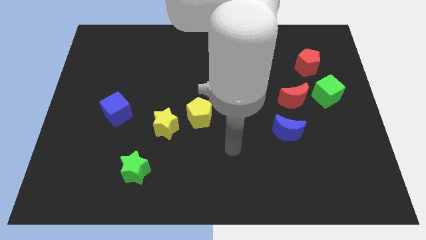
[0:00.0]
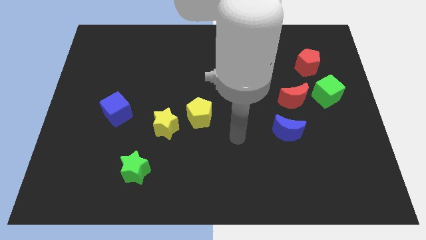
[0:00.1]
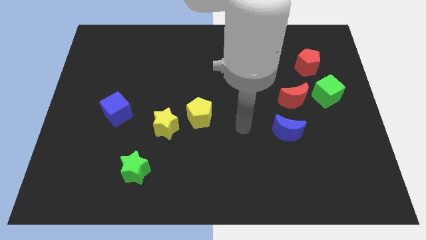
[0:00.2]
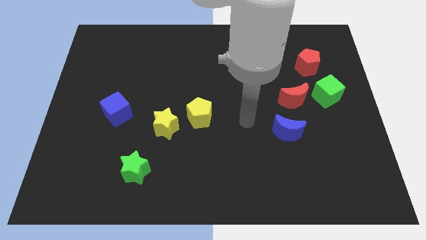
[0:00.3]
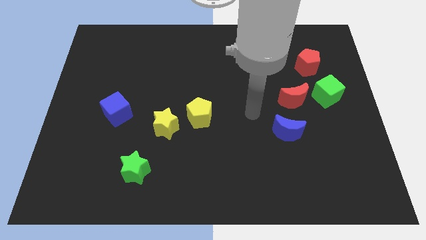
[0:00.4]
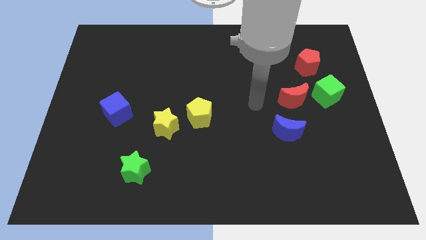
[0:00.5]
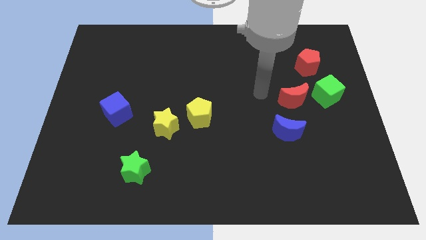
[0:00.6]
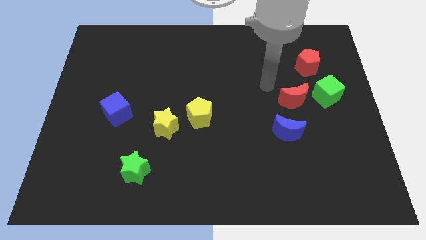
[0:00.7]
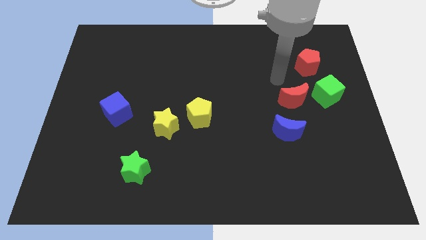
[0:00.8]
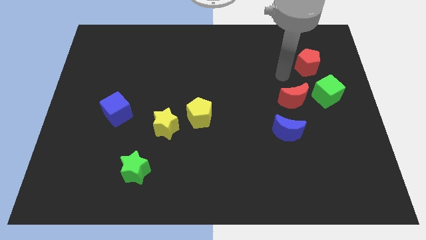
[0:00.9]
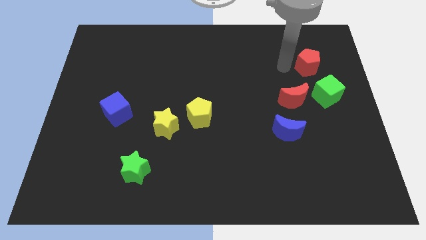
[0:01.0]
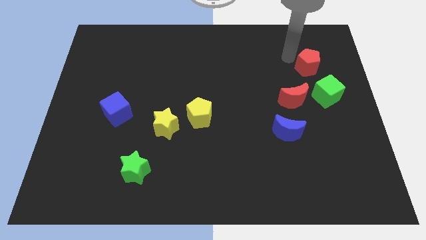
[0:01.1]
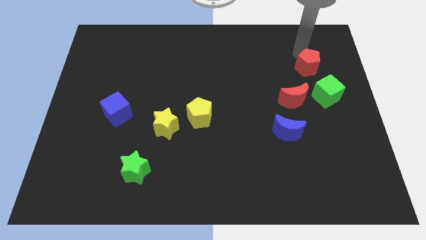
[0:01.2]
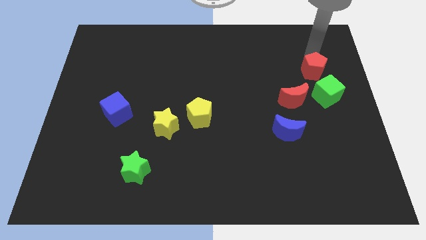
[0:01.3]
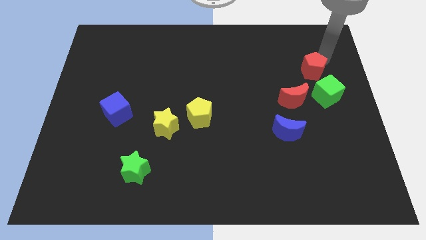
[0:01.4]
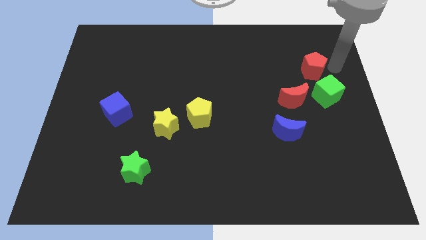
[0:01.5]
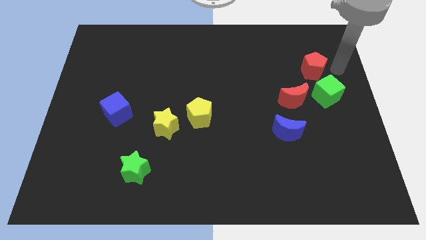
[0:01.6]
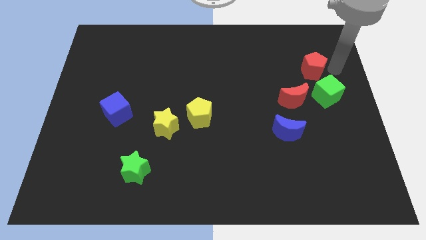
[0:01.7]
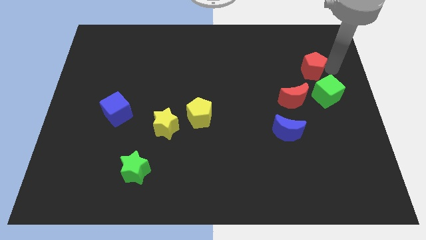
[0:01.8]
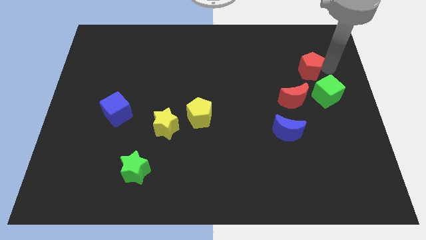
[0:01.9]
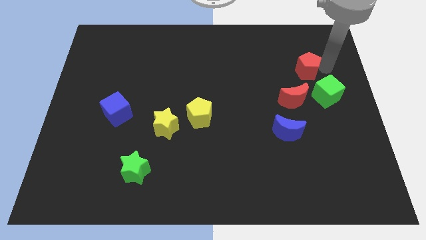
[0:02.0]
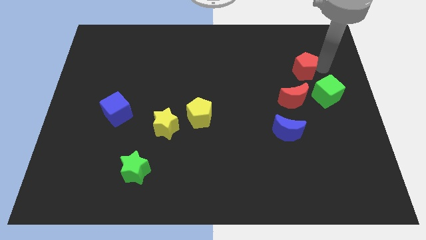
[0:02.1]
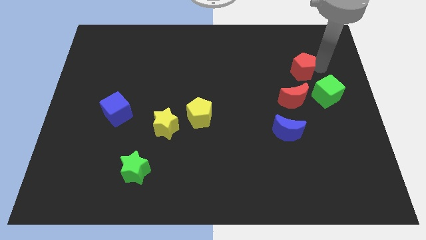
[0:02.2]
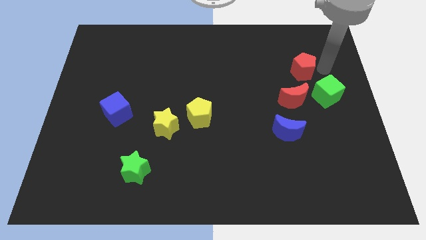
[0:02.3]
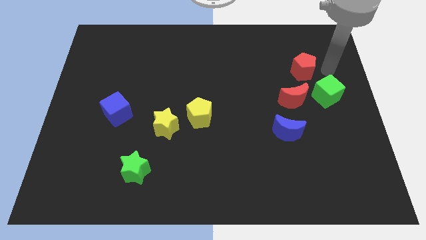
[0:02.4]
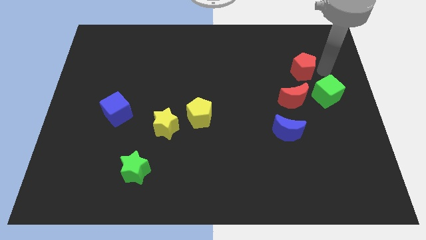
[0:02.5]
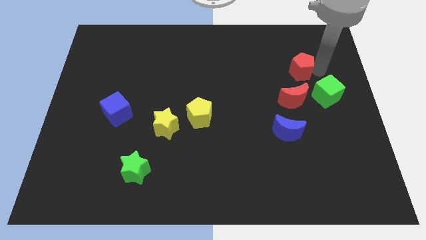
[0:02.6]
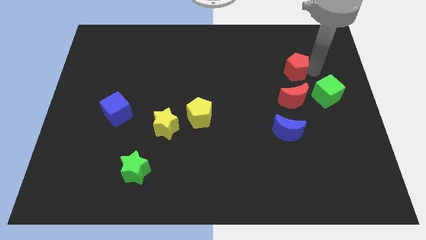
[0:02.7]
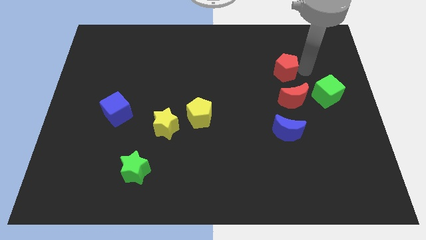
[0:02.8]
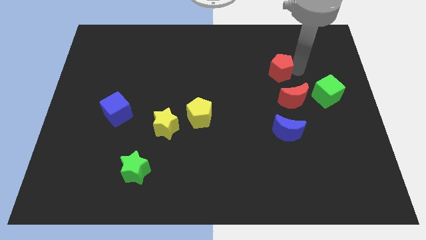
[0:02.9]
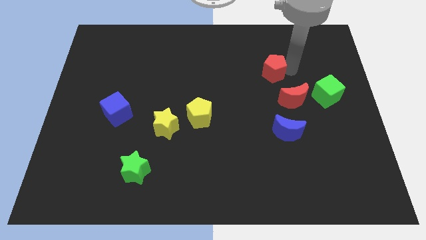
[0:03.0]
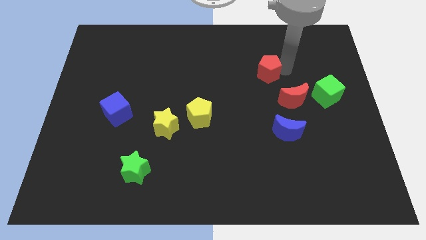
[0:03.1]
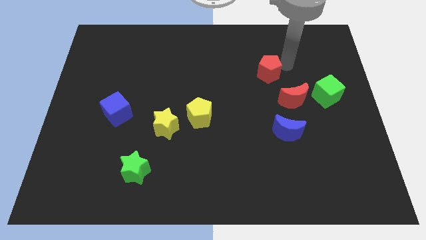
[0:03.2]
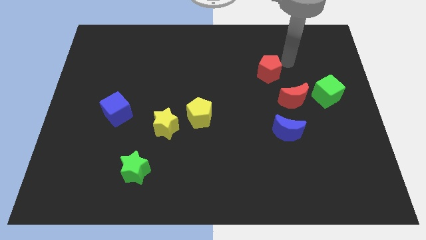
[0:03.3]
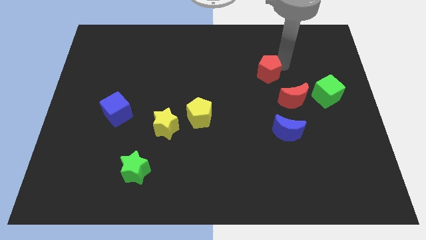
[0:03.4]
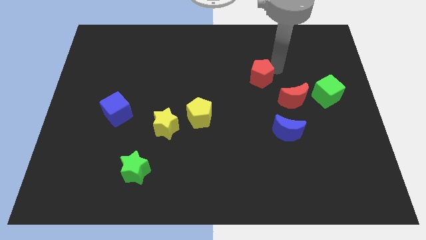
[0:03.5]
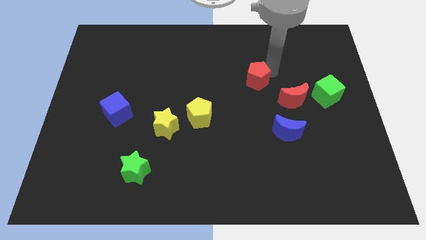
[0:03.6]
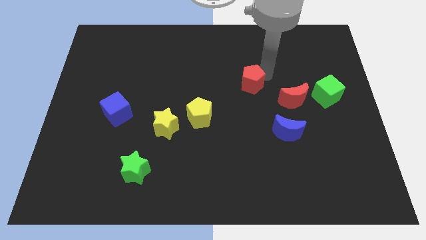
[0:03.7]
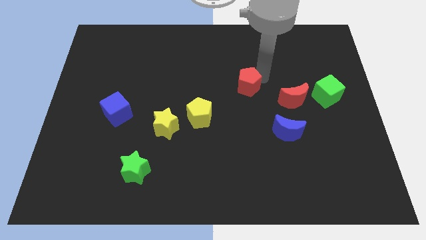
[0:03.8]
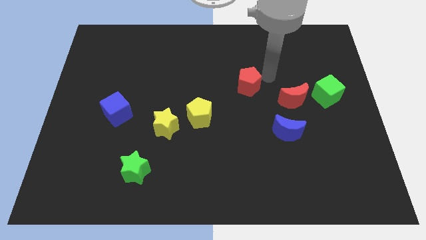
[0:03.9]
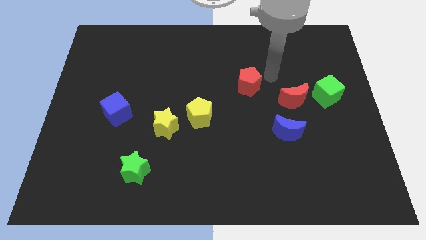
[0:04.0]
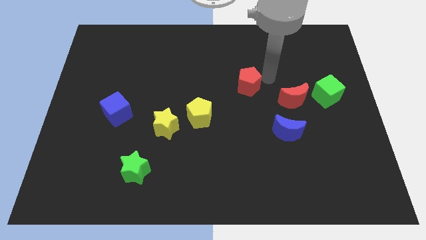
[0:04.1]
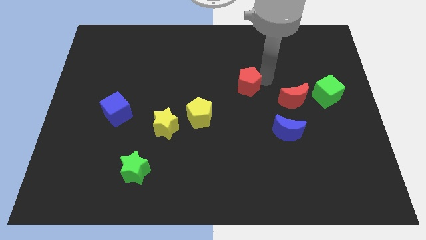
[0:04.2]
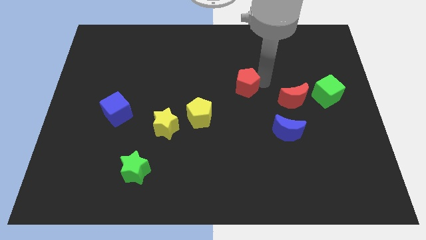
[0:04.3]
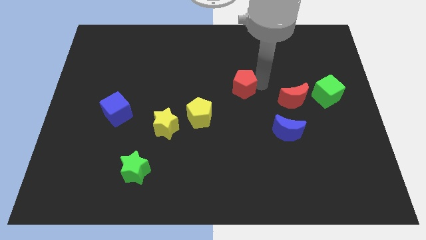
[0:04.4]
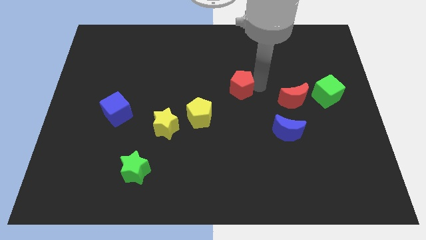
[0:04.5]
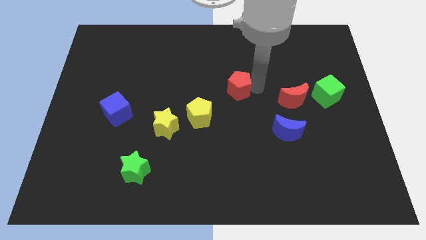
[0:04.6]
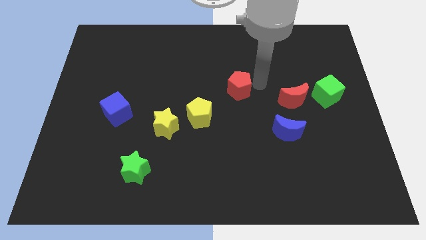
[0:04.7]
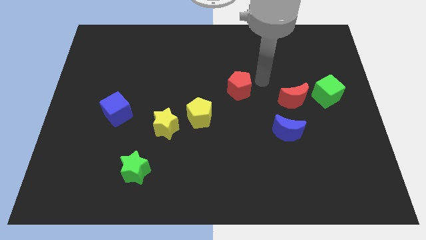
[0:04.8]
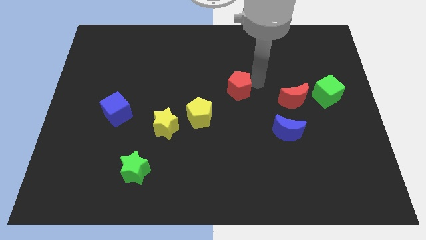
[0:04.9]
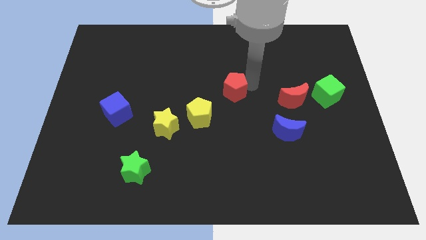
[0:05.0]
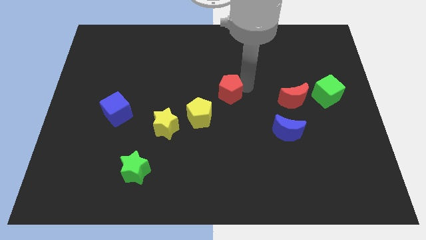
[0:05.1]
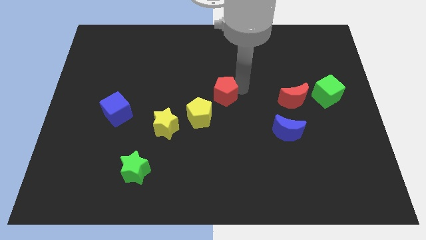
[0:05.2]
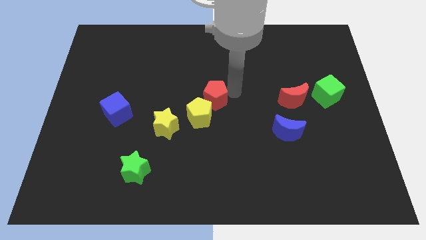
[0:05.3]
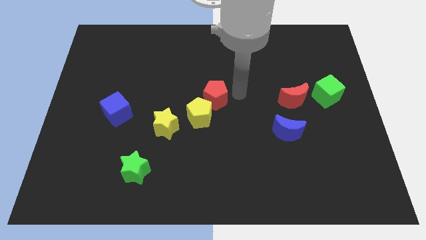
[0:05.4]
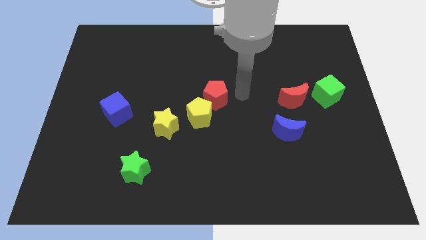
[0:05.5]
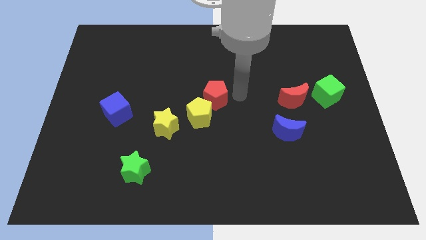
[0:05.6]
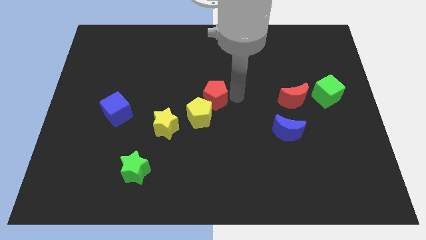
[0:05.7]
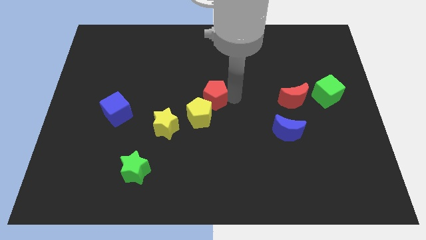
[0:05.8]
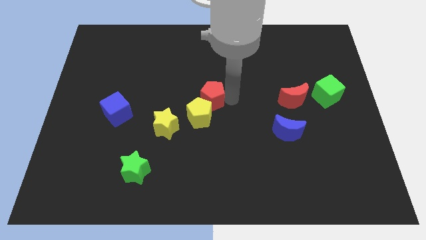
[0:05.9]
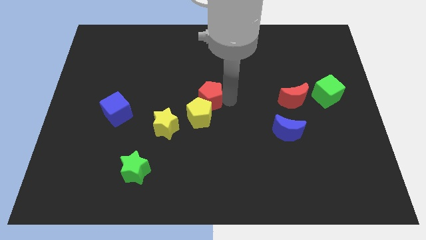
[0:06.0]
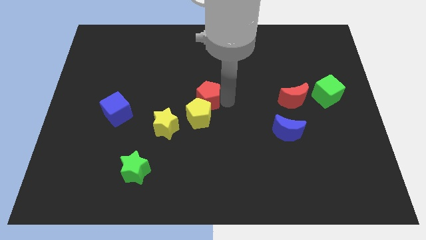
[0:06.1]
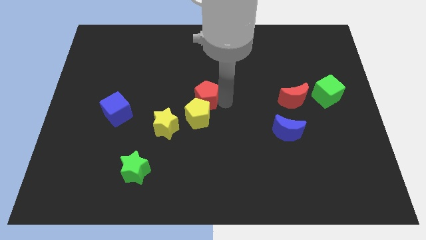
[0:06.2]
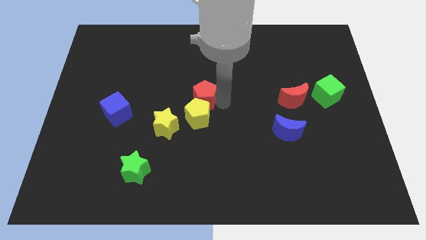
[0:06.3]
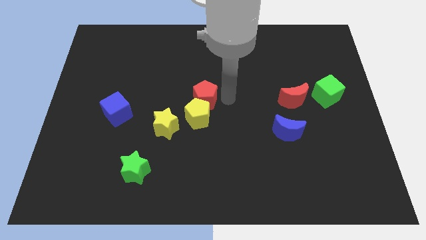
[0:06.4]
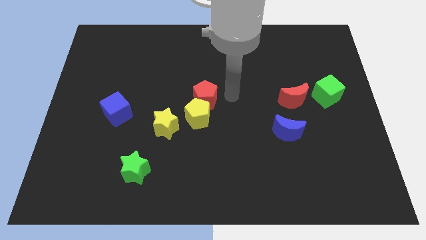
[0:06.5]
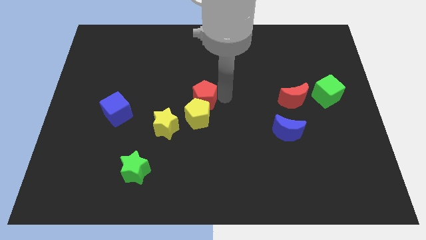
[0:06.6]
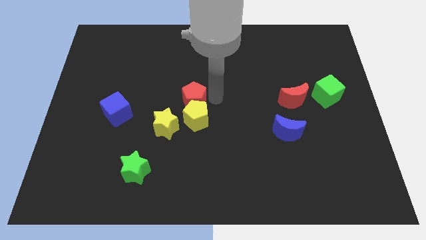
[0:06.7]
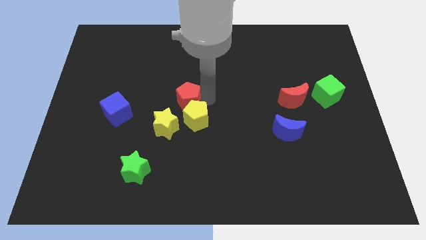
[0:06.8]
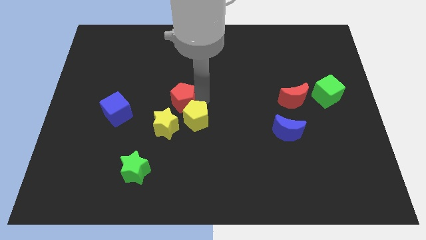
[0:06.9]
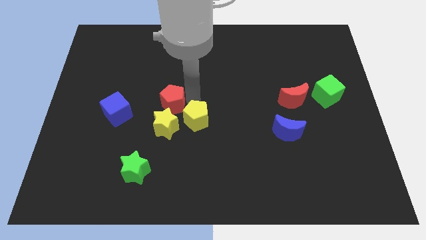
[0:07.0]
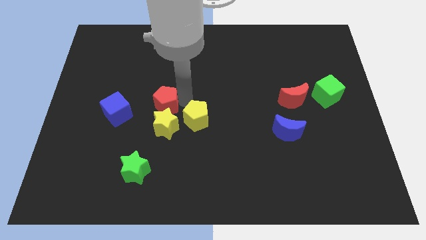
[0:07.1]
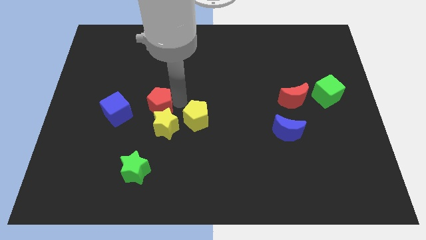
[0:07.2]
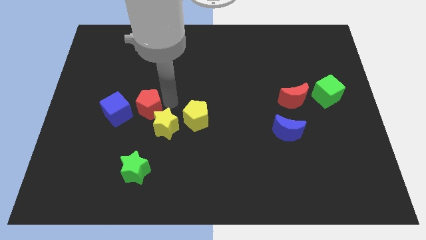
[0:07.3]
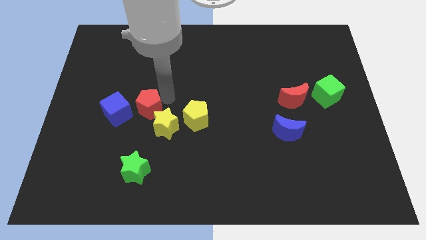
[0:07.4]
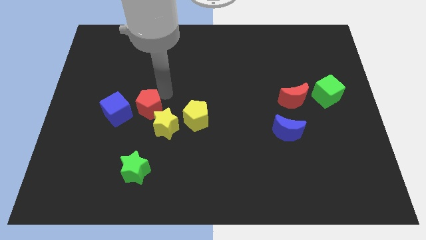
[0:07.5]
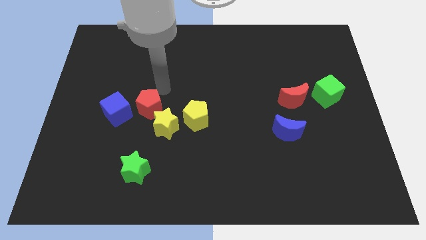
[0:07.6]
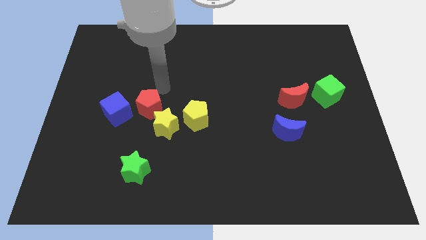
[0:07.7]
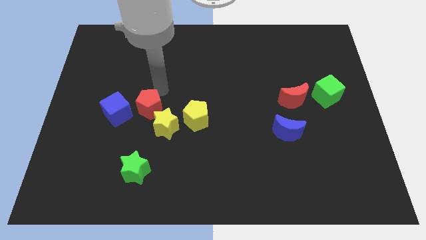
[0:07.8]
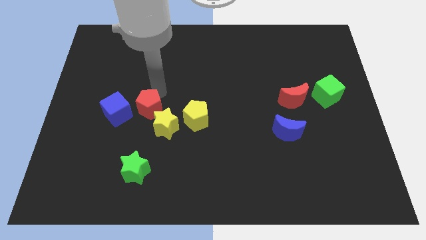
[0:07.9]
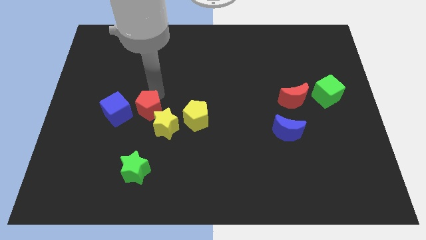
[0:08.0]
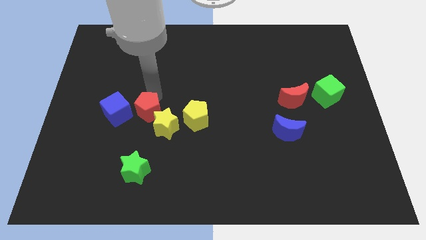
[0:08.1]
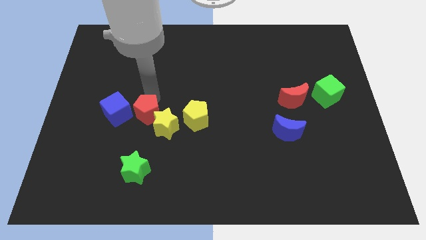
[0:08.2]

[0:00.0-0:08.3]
put the red pentagon to the bottom right side of the blue cube
